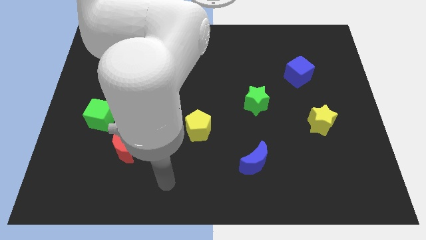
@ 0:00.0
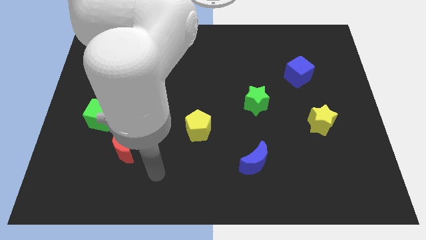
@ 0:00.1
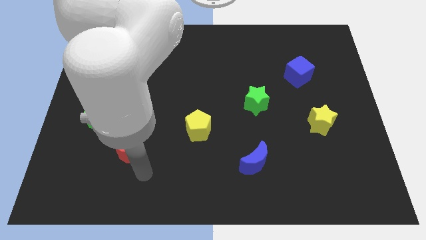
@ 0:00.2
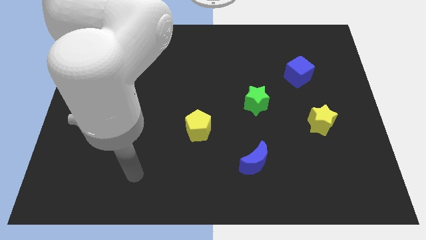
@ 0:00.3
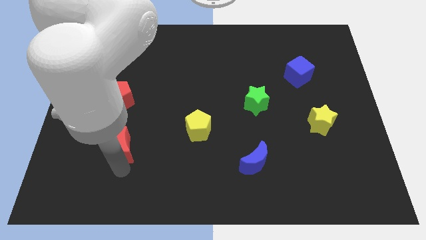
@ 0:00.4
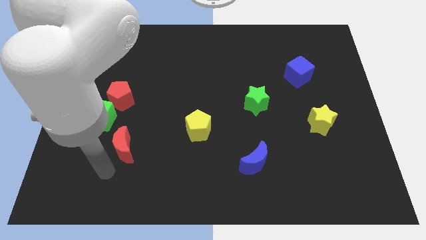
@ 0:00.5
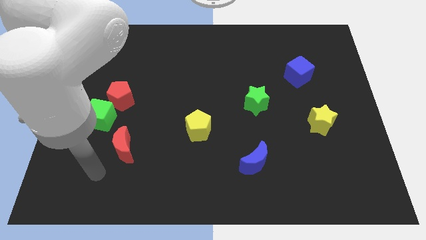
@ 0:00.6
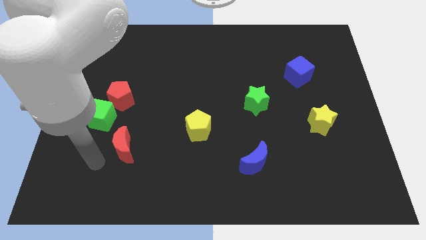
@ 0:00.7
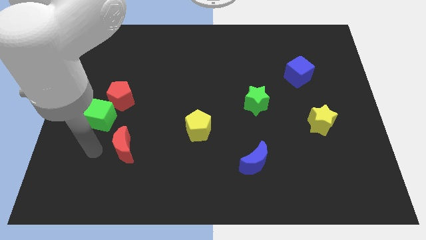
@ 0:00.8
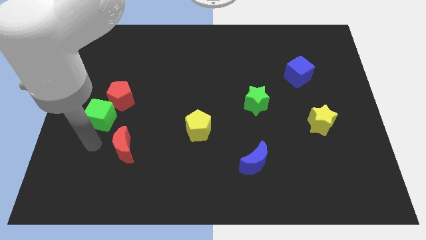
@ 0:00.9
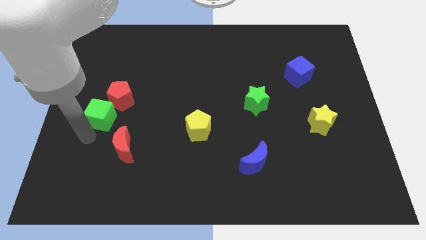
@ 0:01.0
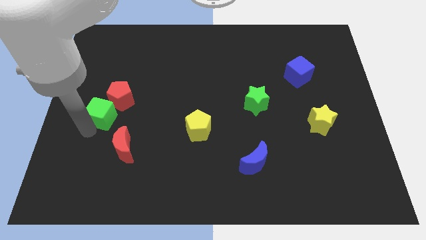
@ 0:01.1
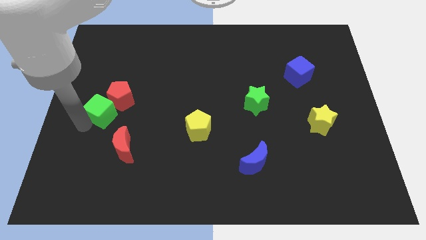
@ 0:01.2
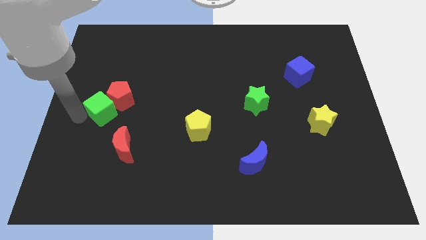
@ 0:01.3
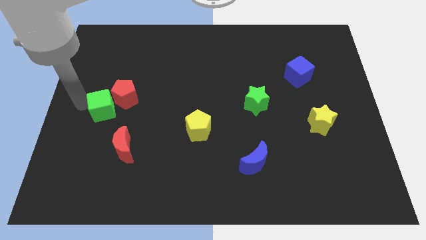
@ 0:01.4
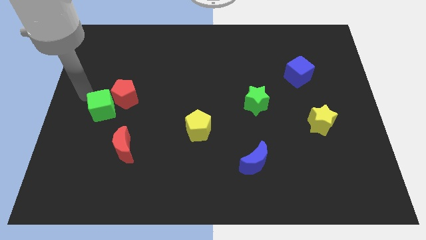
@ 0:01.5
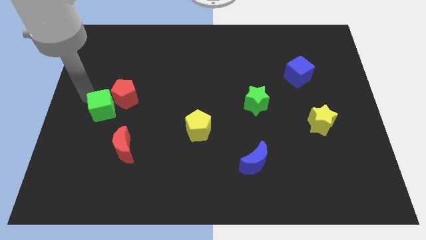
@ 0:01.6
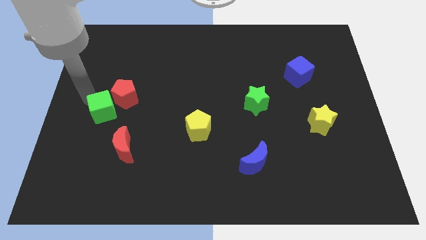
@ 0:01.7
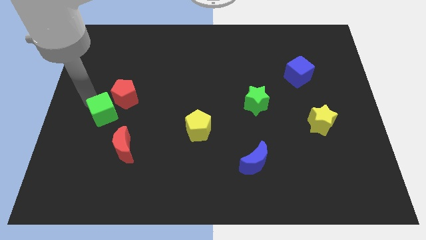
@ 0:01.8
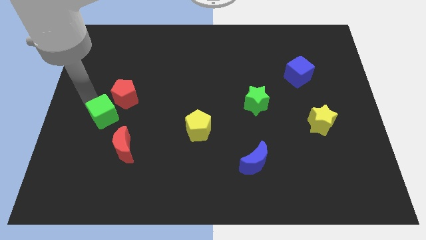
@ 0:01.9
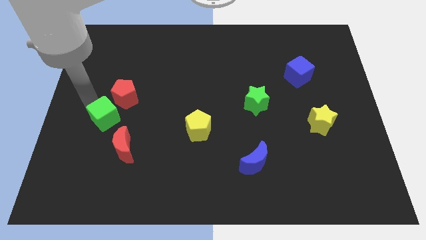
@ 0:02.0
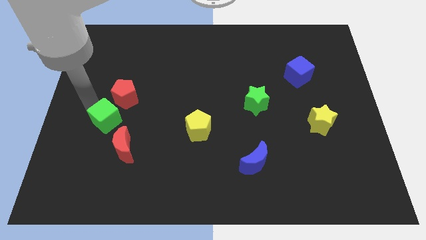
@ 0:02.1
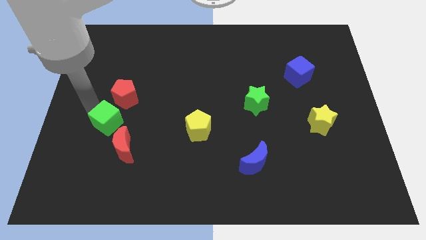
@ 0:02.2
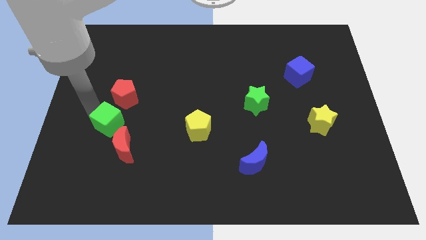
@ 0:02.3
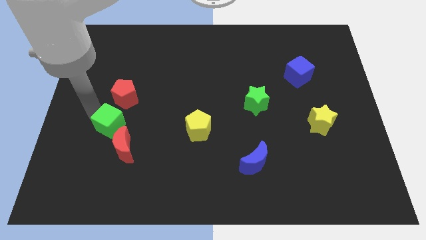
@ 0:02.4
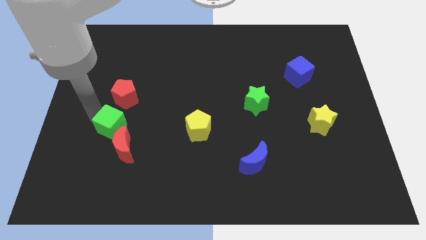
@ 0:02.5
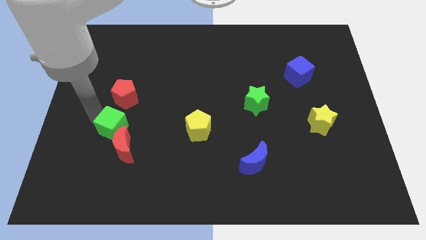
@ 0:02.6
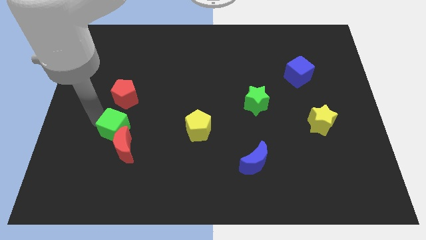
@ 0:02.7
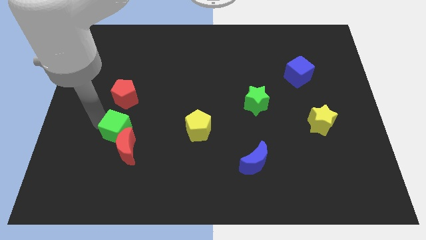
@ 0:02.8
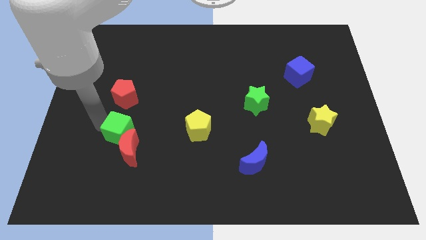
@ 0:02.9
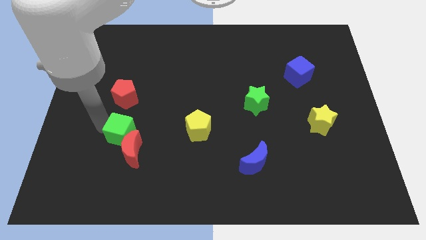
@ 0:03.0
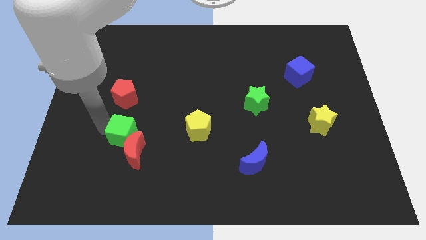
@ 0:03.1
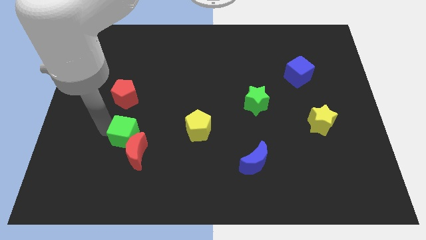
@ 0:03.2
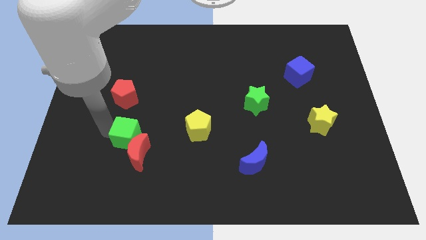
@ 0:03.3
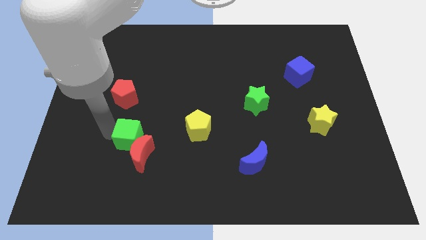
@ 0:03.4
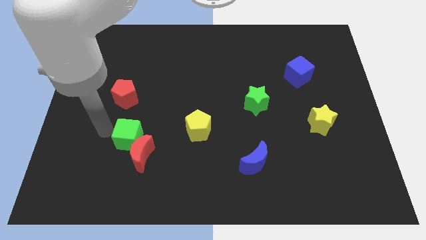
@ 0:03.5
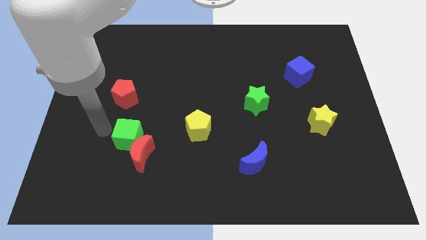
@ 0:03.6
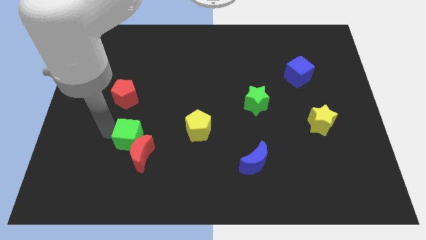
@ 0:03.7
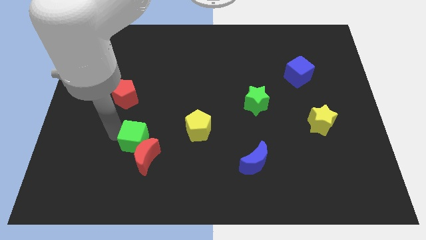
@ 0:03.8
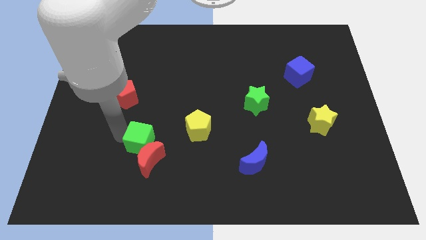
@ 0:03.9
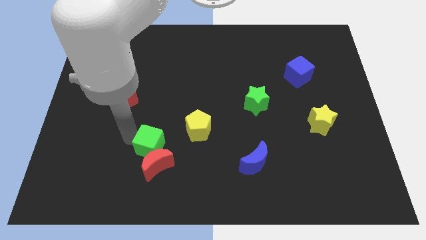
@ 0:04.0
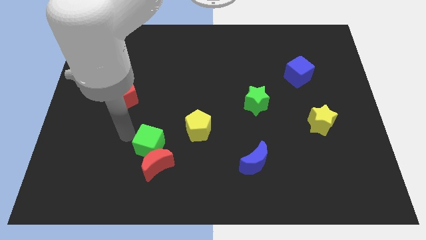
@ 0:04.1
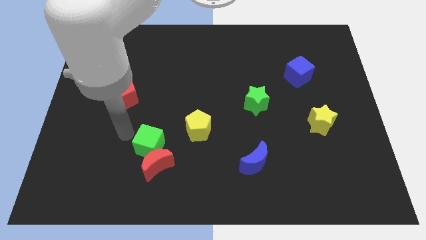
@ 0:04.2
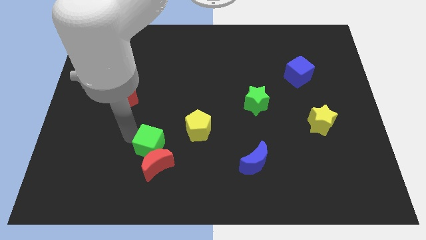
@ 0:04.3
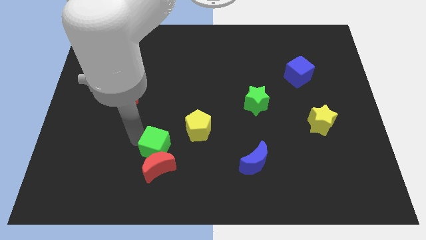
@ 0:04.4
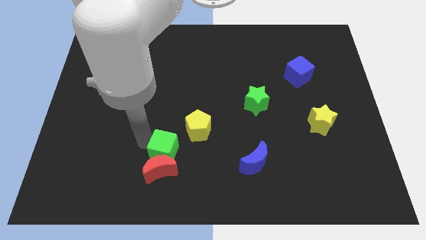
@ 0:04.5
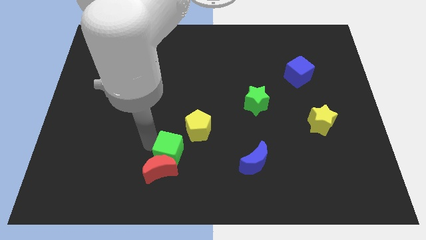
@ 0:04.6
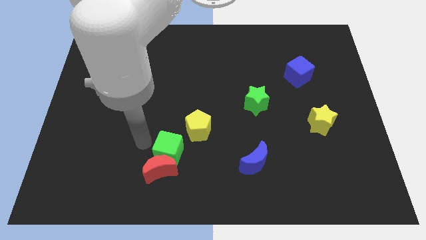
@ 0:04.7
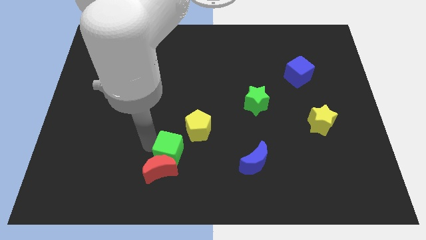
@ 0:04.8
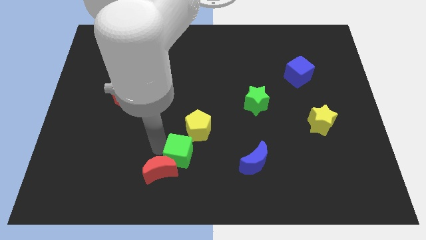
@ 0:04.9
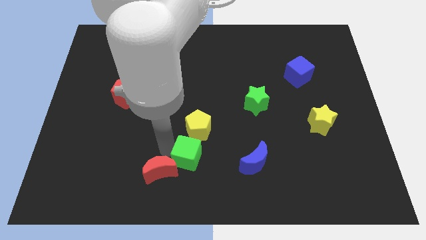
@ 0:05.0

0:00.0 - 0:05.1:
push the green cube left of the blue moon
